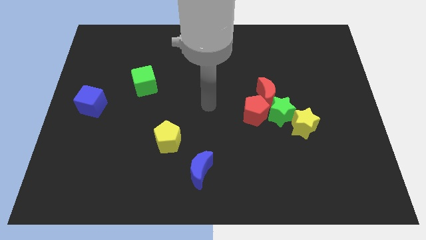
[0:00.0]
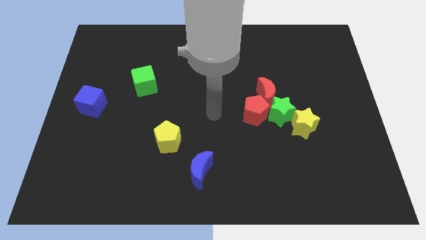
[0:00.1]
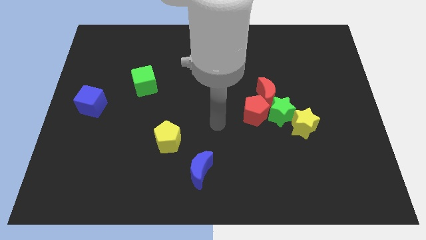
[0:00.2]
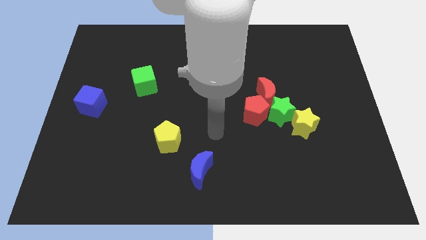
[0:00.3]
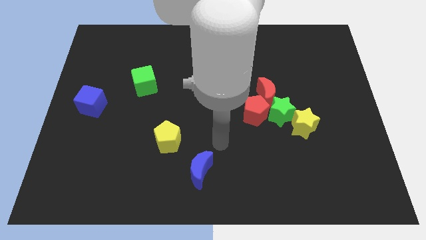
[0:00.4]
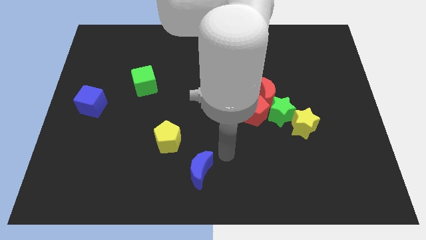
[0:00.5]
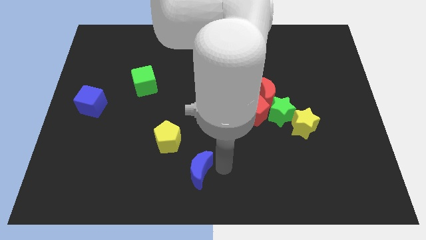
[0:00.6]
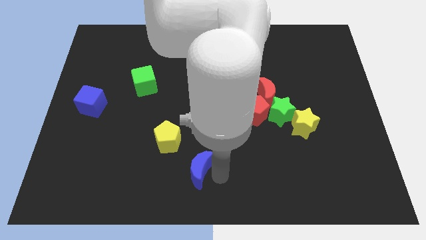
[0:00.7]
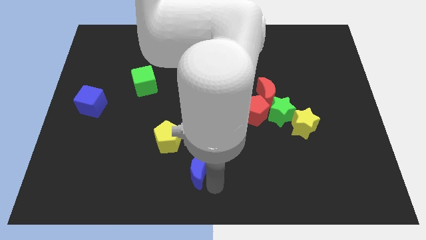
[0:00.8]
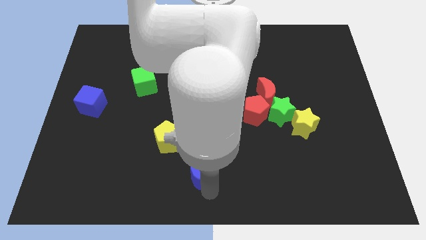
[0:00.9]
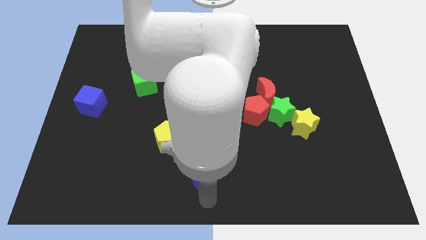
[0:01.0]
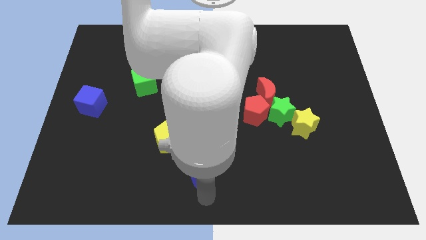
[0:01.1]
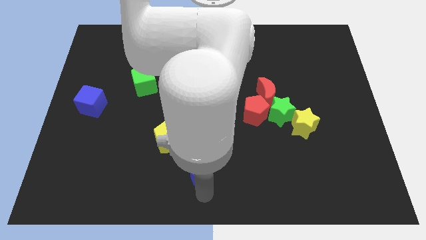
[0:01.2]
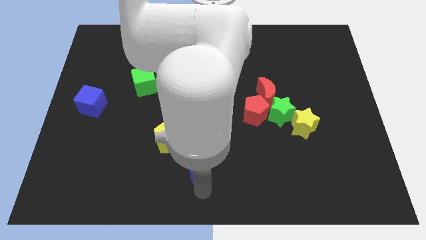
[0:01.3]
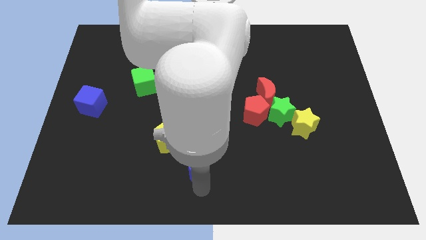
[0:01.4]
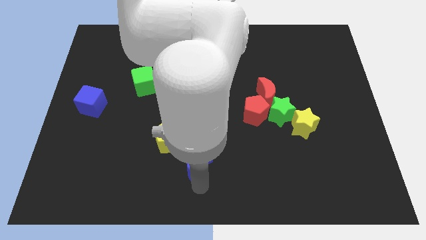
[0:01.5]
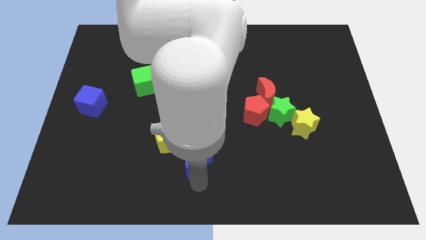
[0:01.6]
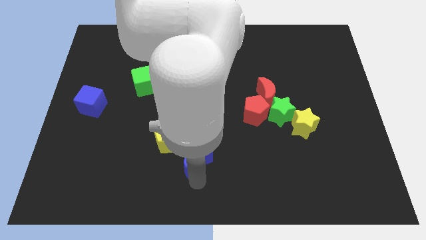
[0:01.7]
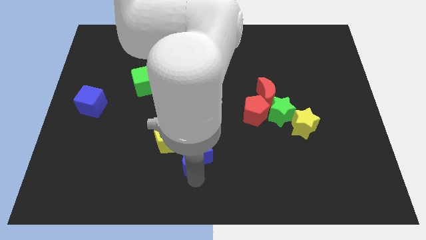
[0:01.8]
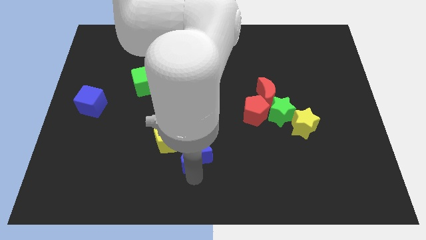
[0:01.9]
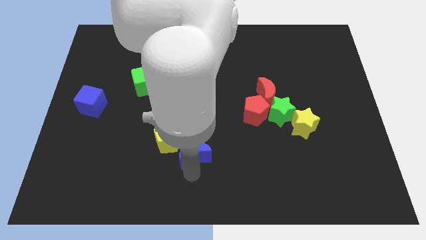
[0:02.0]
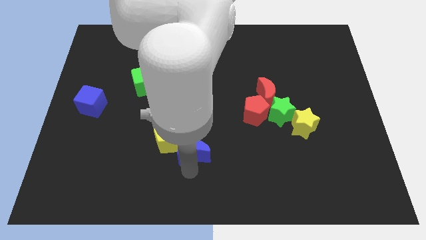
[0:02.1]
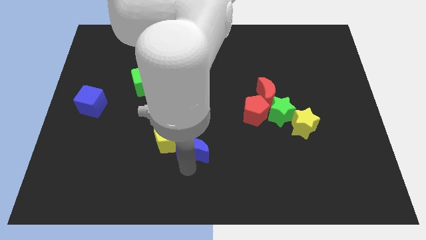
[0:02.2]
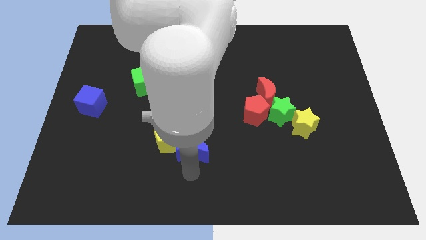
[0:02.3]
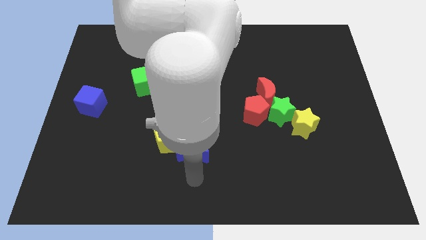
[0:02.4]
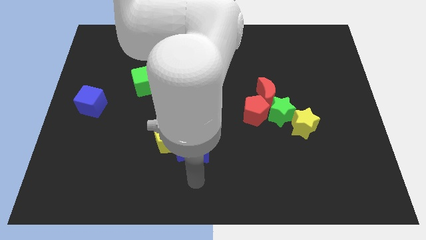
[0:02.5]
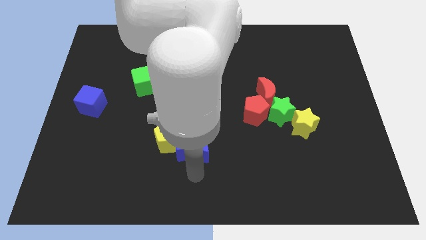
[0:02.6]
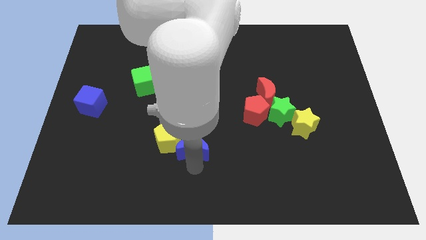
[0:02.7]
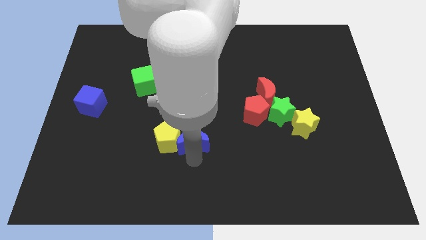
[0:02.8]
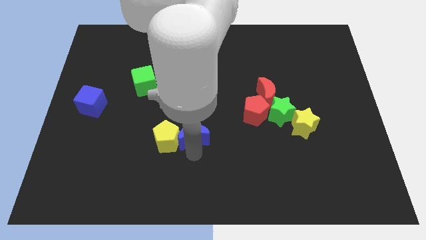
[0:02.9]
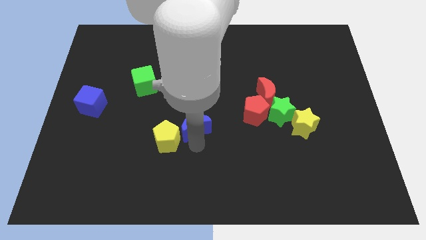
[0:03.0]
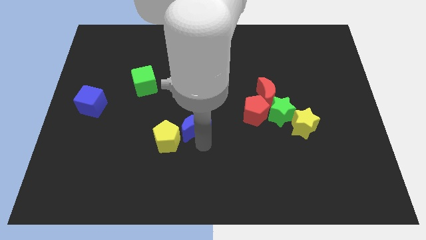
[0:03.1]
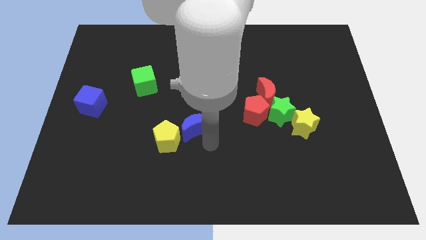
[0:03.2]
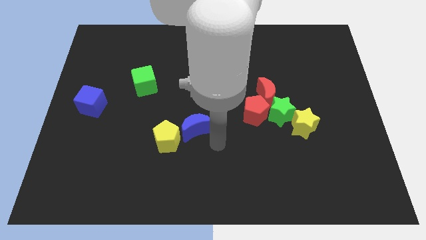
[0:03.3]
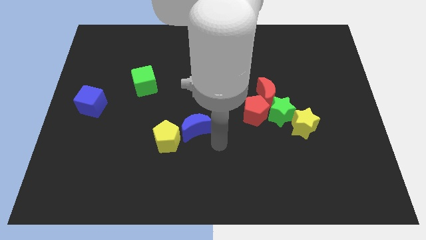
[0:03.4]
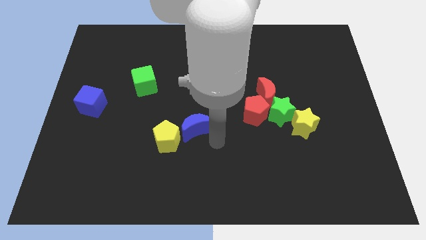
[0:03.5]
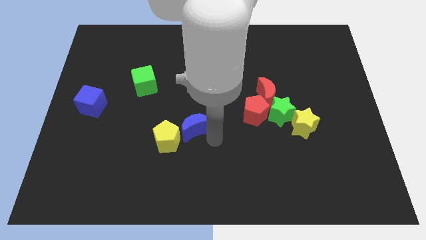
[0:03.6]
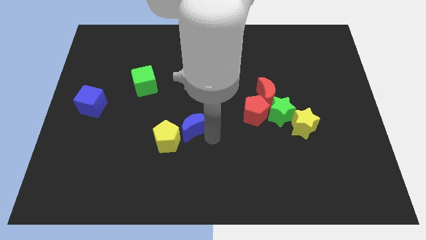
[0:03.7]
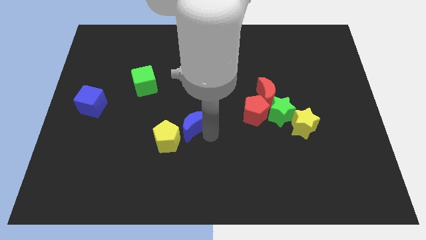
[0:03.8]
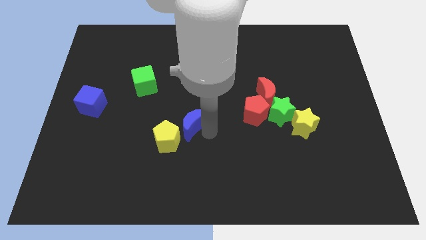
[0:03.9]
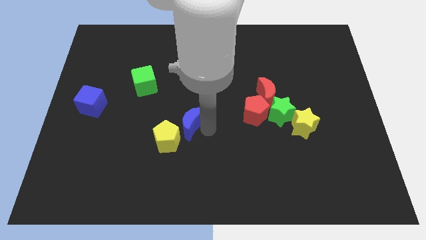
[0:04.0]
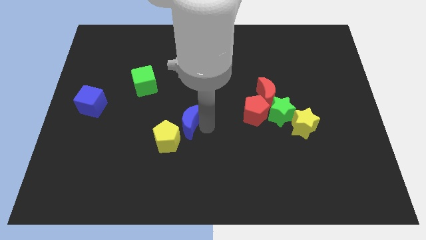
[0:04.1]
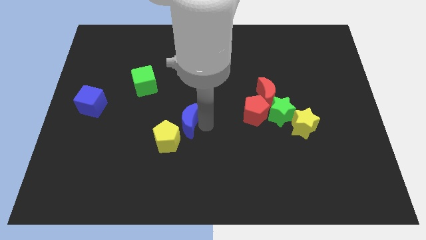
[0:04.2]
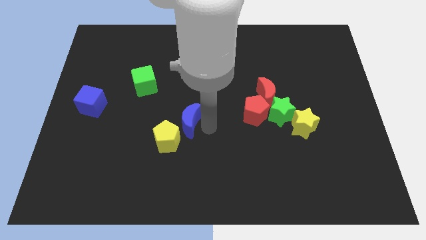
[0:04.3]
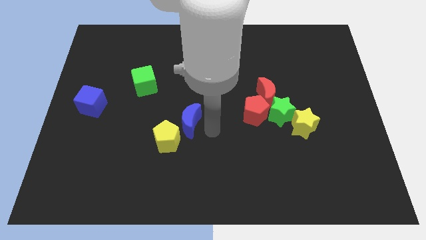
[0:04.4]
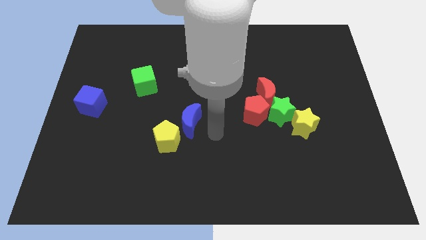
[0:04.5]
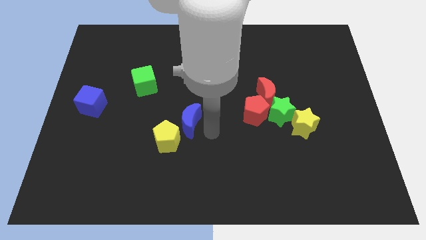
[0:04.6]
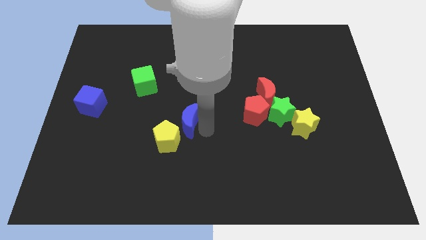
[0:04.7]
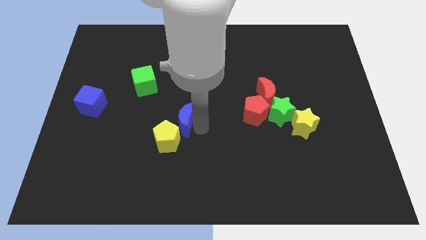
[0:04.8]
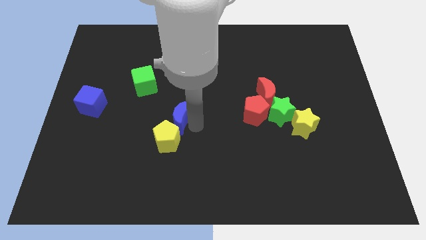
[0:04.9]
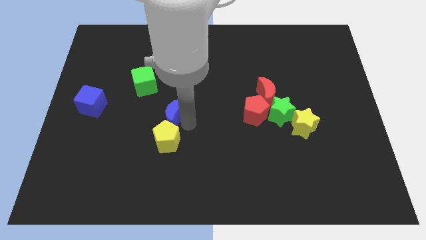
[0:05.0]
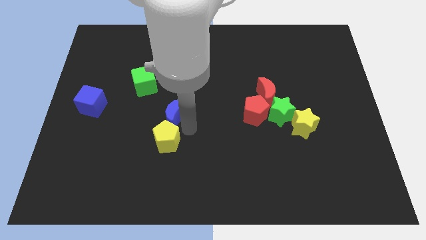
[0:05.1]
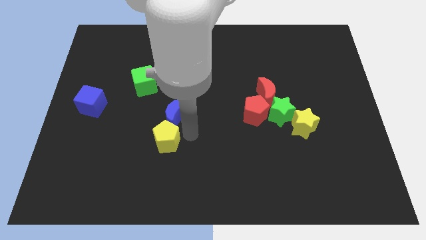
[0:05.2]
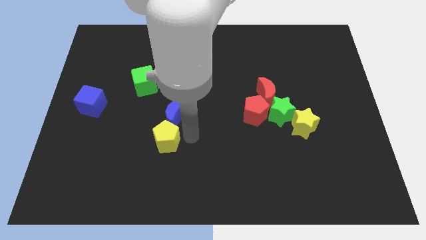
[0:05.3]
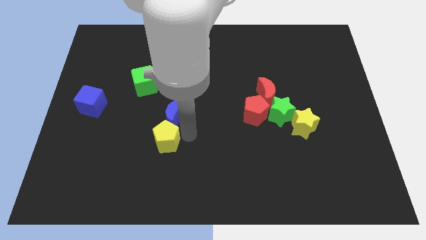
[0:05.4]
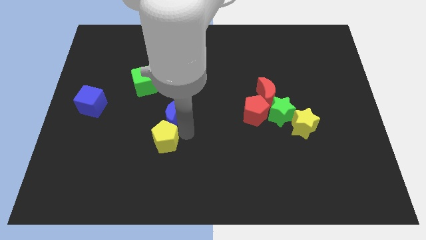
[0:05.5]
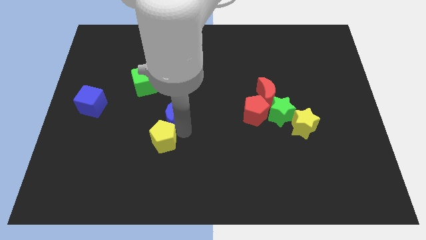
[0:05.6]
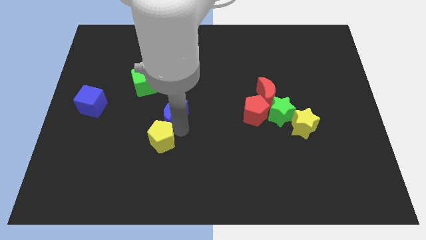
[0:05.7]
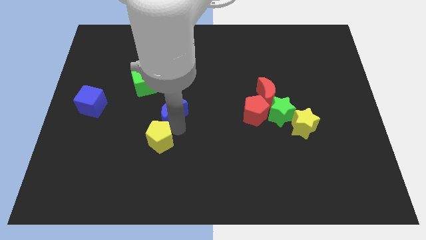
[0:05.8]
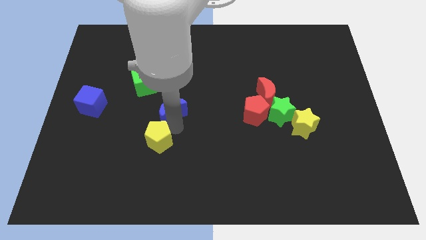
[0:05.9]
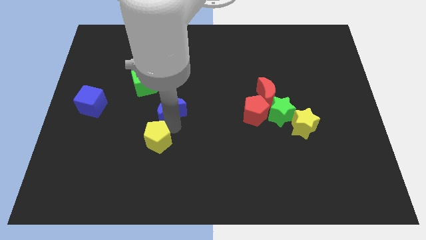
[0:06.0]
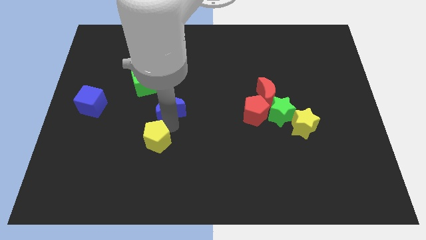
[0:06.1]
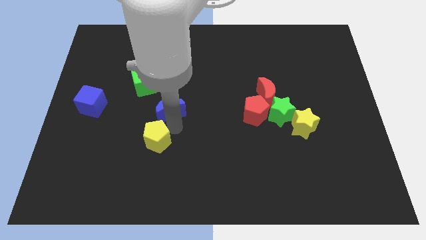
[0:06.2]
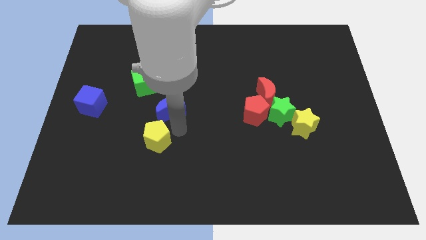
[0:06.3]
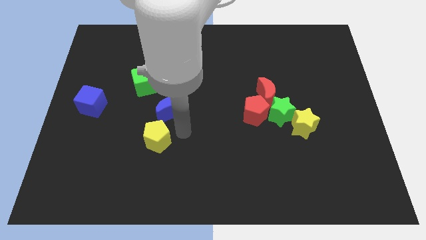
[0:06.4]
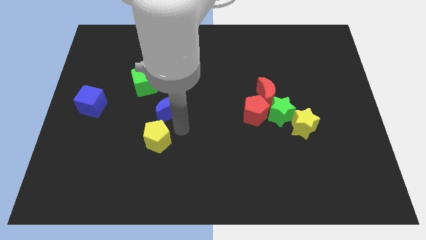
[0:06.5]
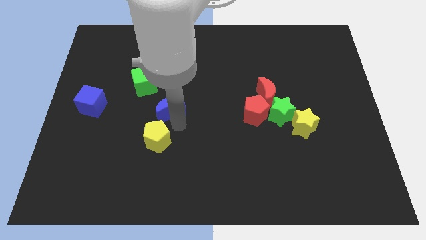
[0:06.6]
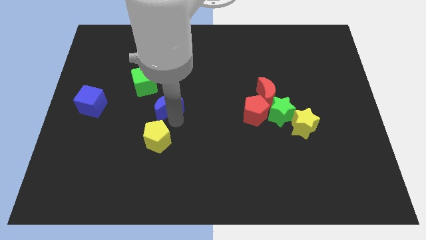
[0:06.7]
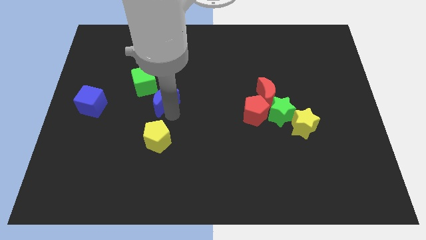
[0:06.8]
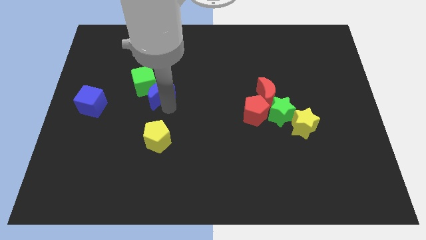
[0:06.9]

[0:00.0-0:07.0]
slide the blue moon close to the green cube
